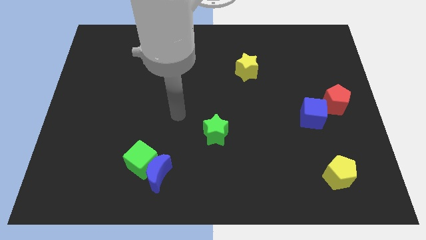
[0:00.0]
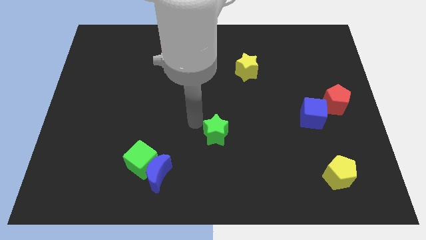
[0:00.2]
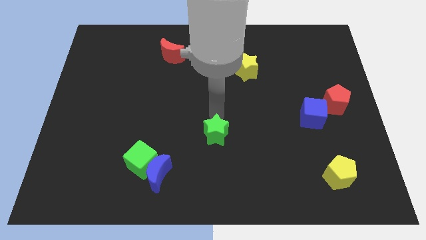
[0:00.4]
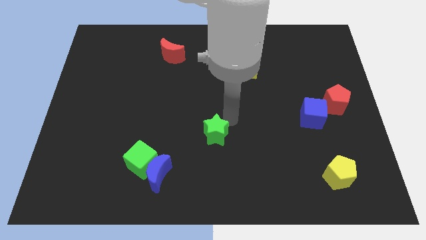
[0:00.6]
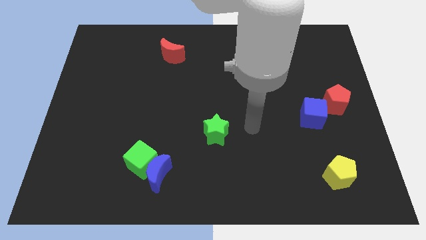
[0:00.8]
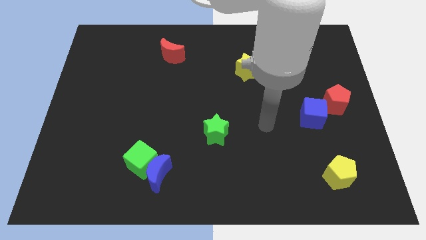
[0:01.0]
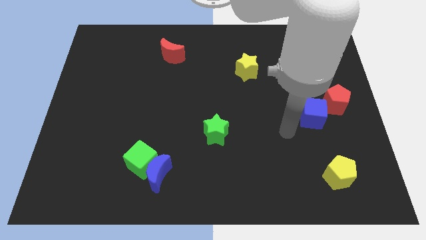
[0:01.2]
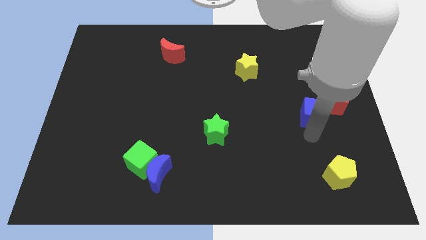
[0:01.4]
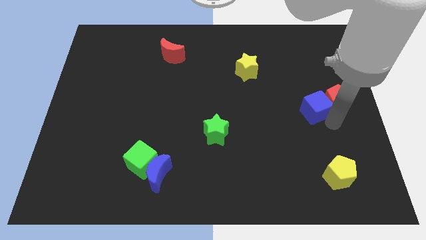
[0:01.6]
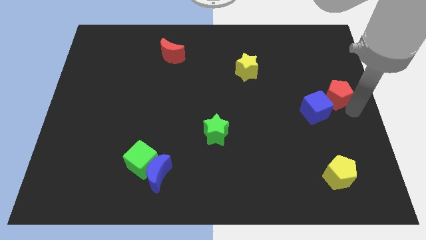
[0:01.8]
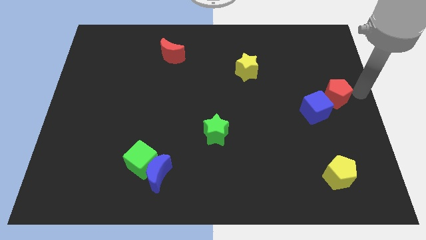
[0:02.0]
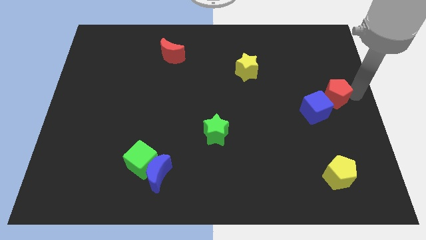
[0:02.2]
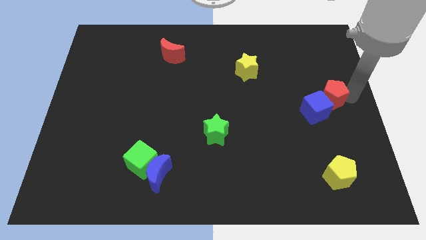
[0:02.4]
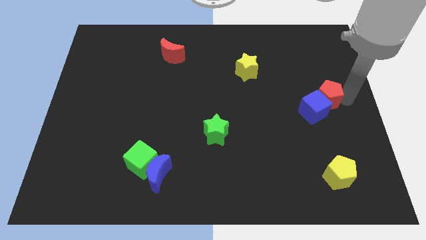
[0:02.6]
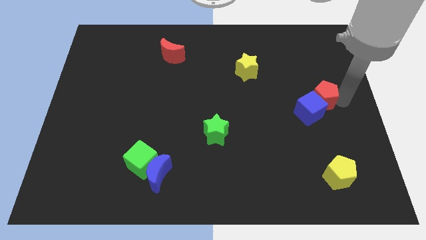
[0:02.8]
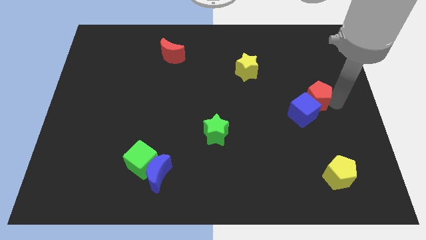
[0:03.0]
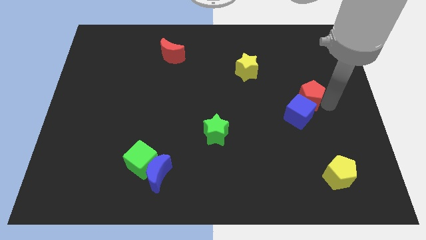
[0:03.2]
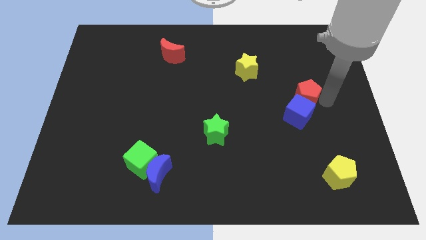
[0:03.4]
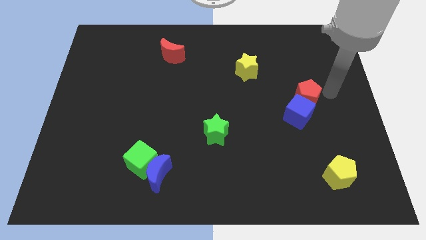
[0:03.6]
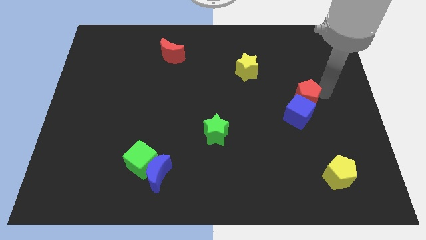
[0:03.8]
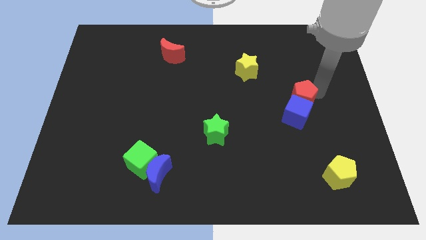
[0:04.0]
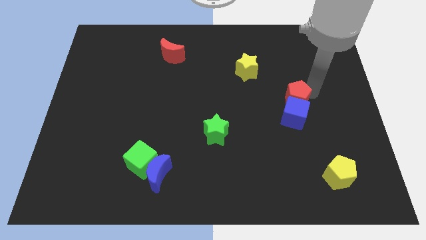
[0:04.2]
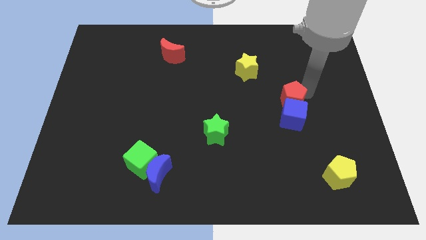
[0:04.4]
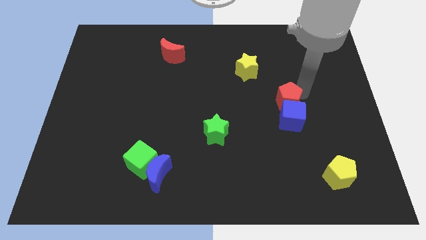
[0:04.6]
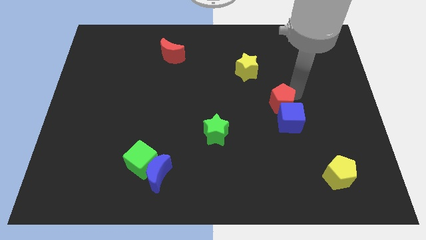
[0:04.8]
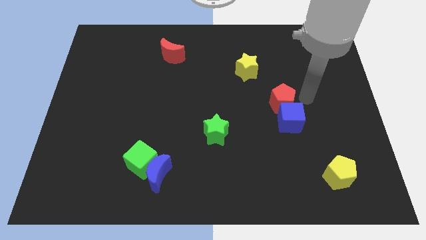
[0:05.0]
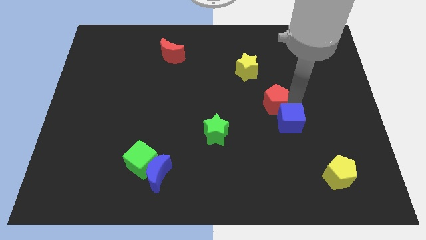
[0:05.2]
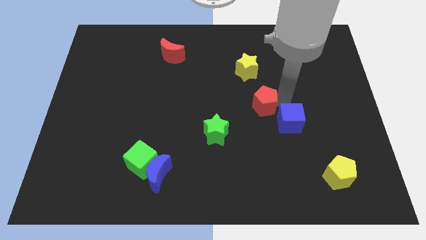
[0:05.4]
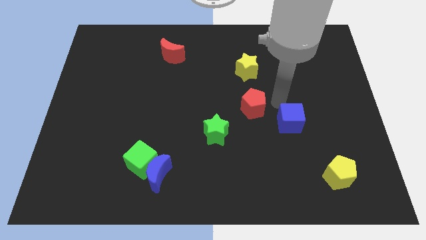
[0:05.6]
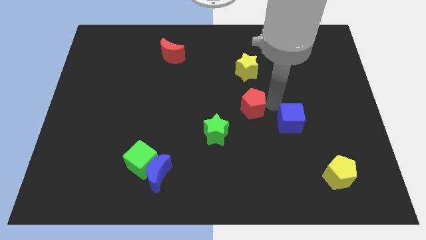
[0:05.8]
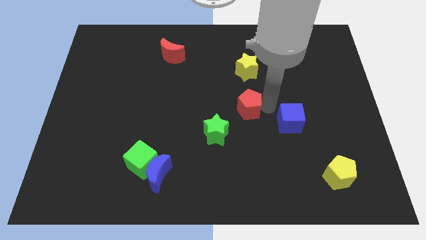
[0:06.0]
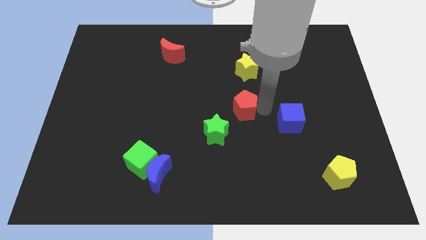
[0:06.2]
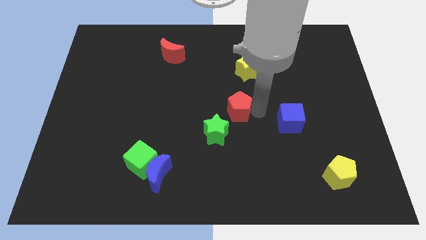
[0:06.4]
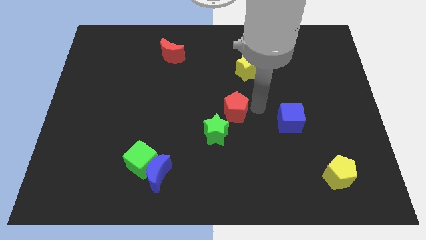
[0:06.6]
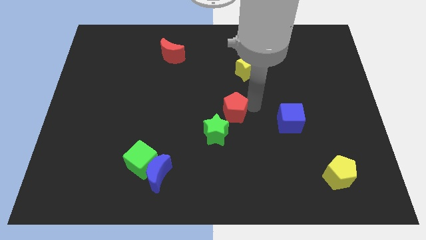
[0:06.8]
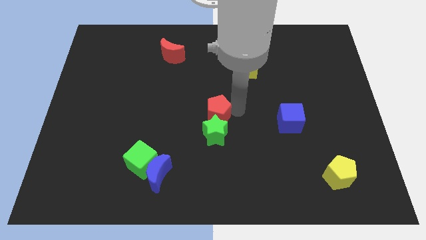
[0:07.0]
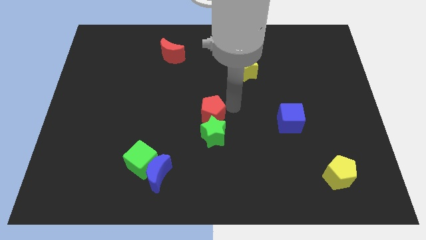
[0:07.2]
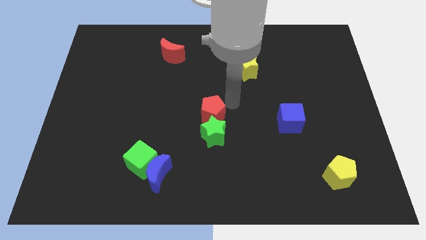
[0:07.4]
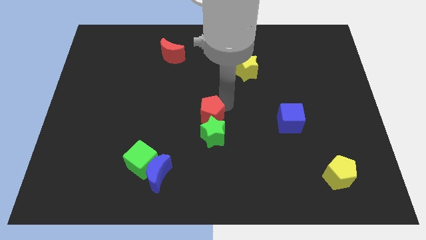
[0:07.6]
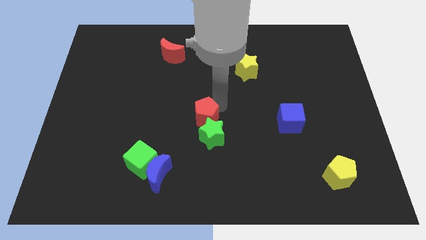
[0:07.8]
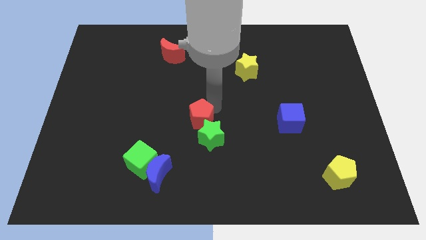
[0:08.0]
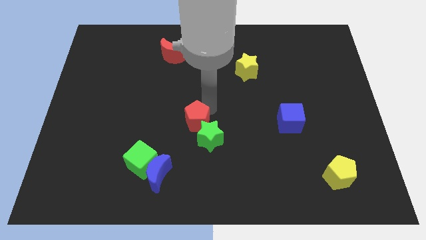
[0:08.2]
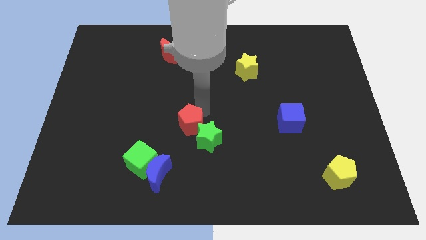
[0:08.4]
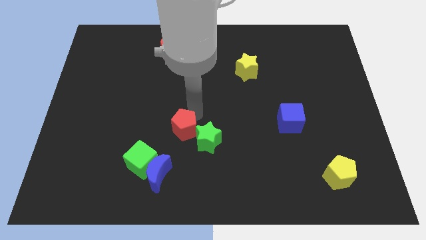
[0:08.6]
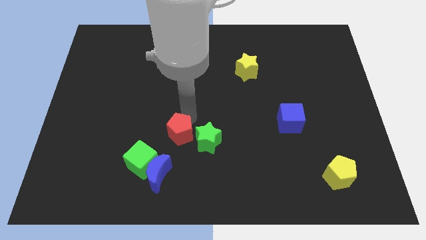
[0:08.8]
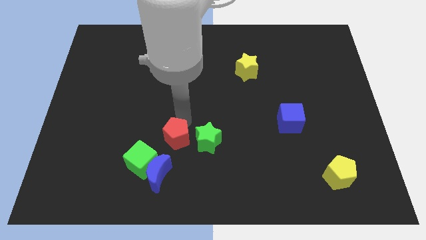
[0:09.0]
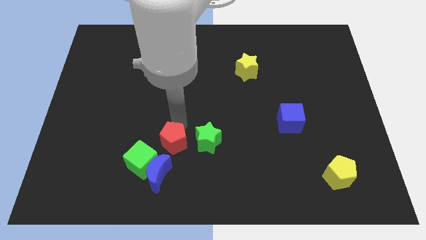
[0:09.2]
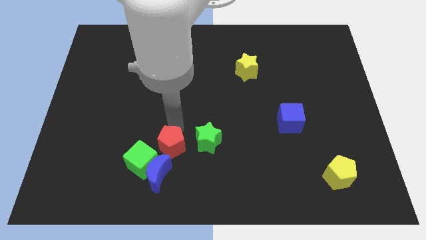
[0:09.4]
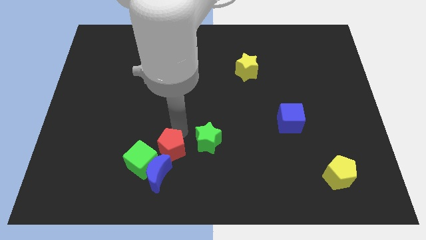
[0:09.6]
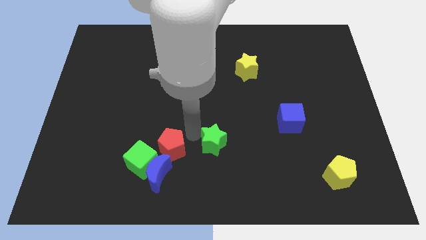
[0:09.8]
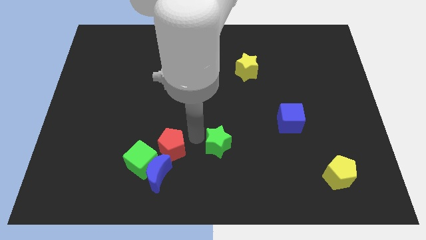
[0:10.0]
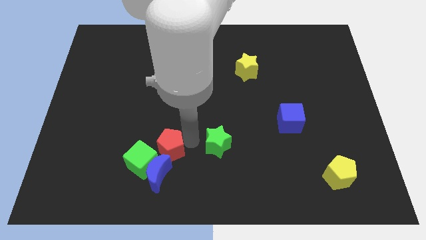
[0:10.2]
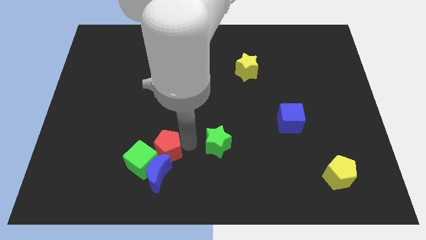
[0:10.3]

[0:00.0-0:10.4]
push the red pentagon towards the green cube

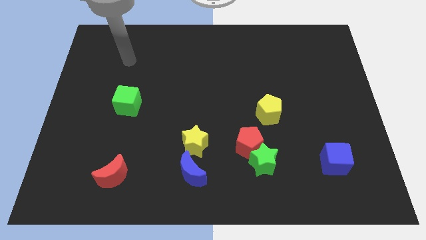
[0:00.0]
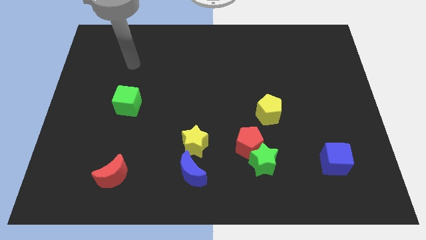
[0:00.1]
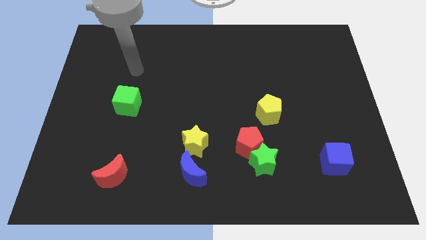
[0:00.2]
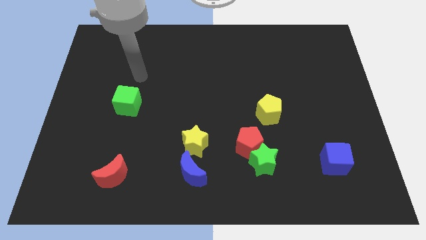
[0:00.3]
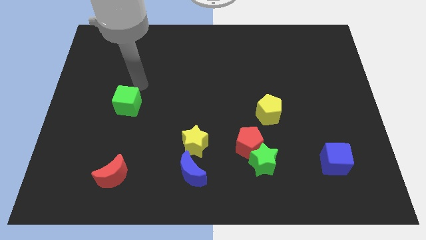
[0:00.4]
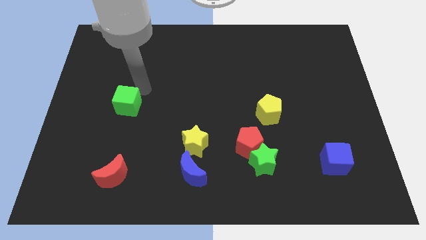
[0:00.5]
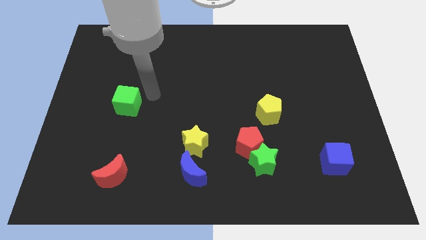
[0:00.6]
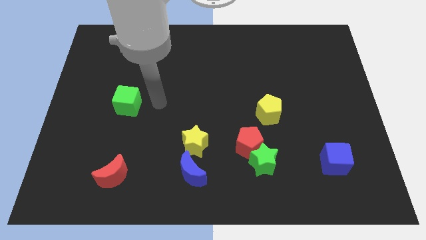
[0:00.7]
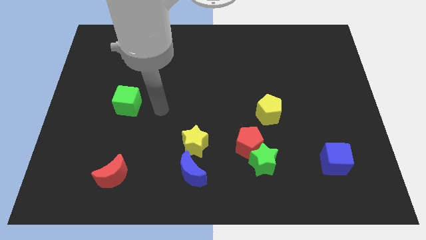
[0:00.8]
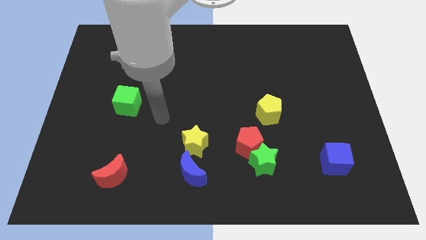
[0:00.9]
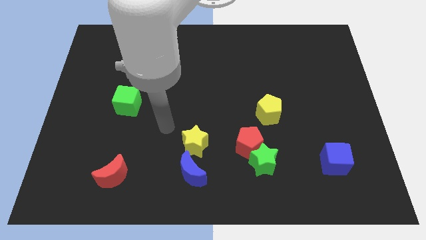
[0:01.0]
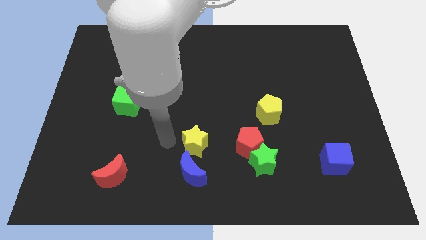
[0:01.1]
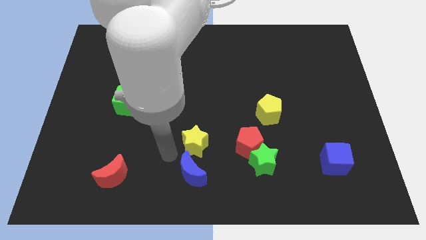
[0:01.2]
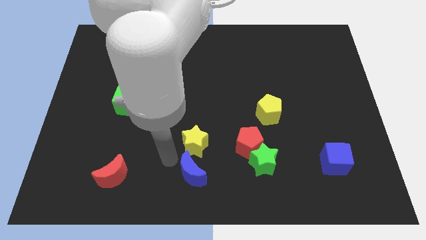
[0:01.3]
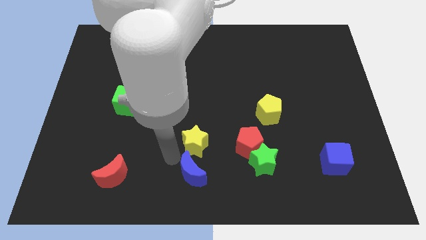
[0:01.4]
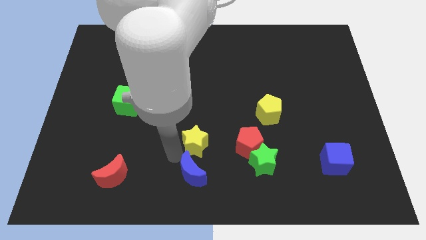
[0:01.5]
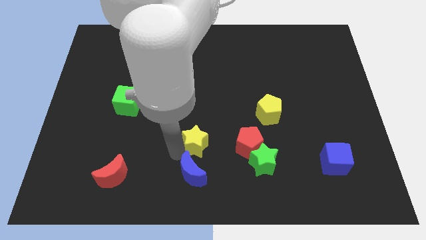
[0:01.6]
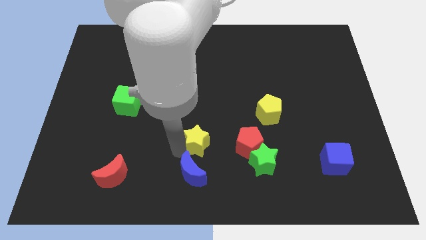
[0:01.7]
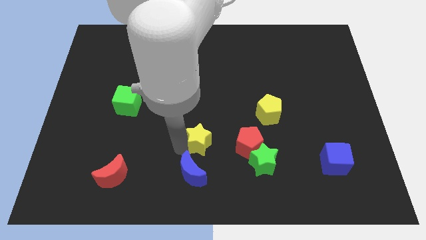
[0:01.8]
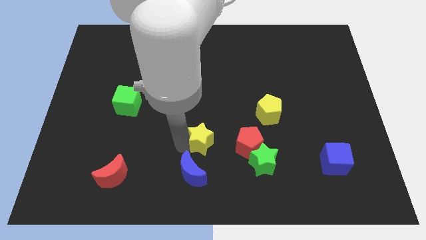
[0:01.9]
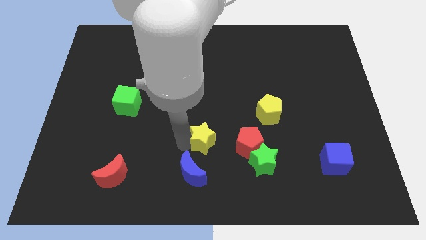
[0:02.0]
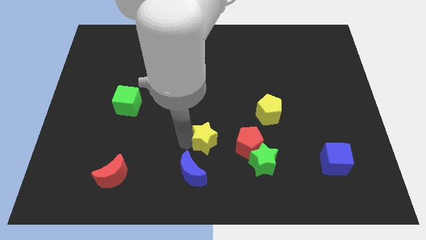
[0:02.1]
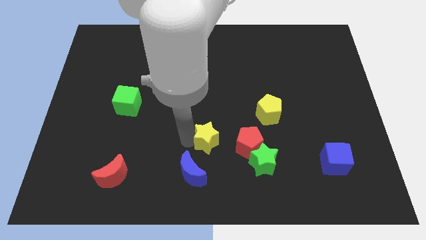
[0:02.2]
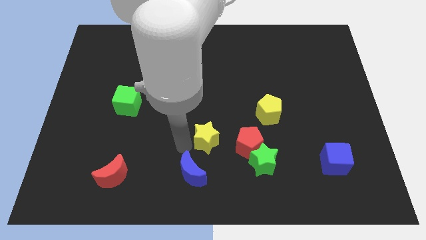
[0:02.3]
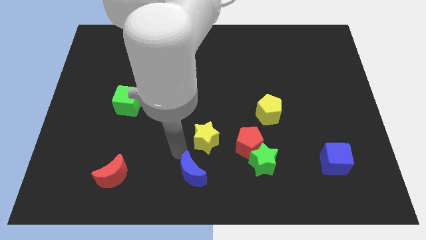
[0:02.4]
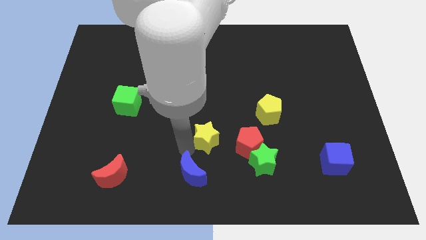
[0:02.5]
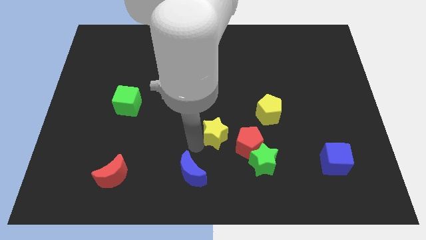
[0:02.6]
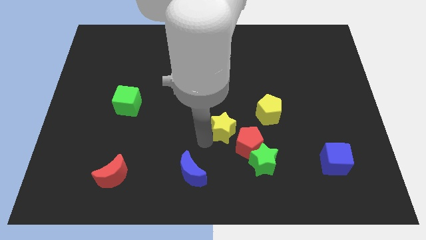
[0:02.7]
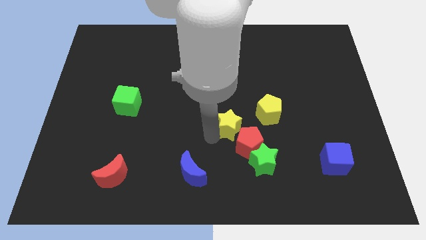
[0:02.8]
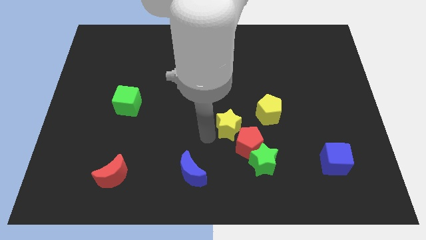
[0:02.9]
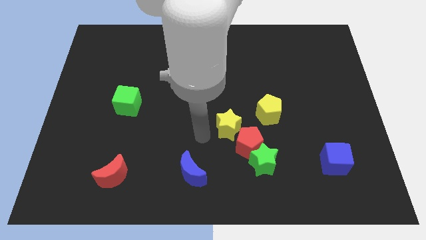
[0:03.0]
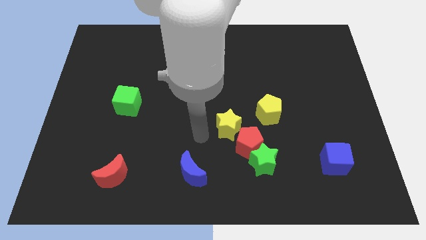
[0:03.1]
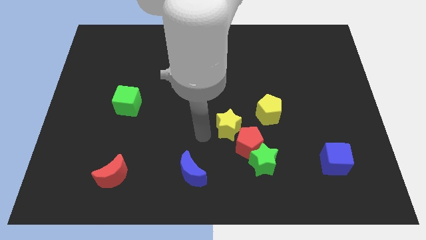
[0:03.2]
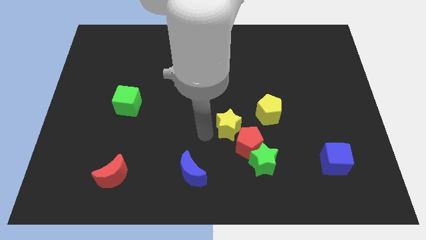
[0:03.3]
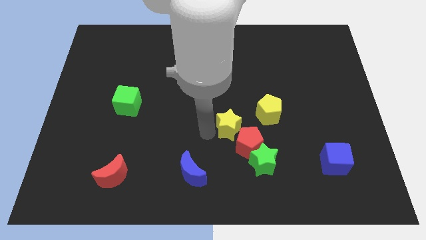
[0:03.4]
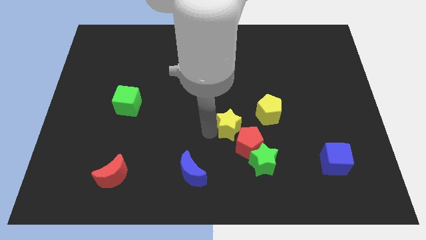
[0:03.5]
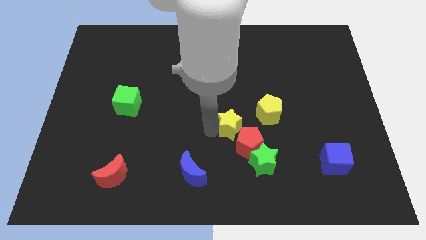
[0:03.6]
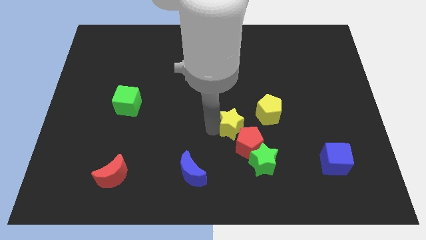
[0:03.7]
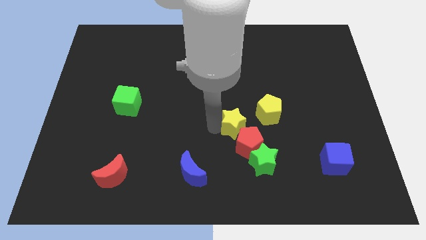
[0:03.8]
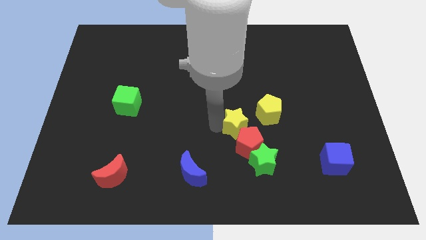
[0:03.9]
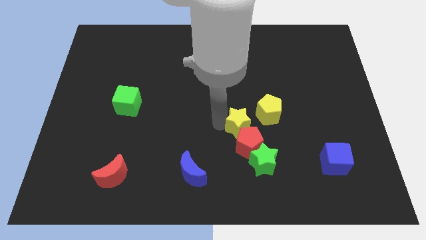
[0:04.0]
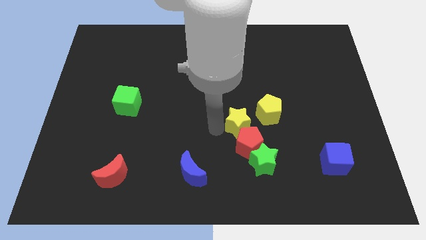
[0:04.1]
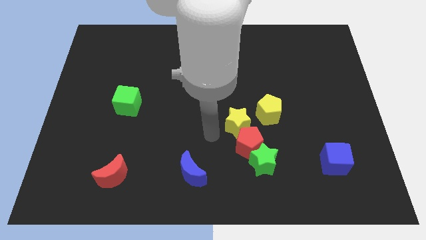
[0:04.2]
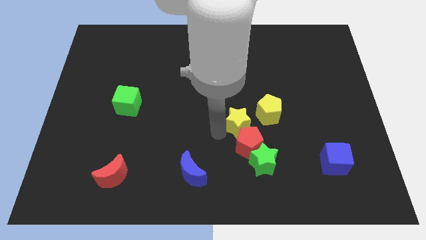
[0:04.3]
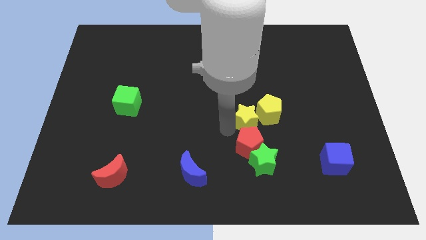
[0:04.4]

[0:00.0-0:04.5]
push the yellow star next to the yellow pentagon
